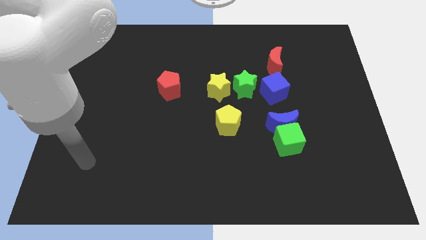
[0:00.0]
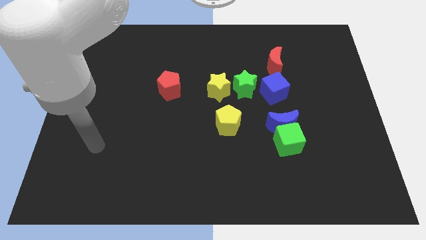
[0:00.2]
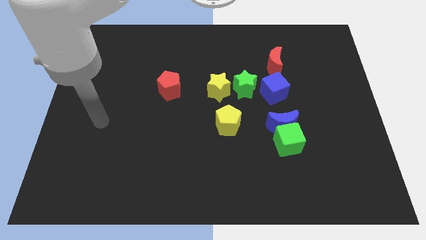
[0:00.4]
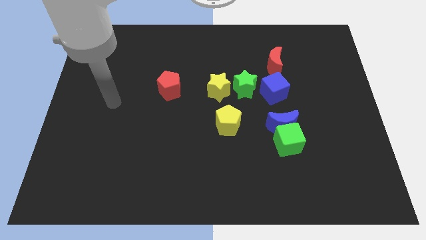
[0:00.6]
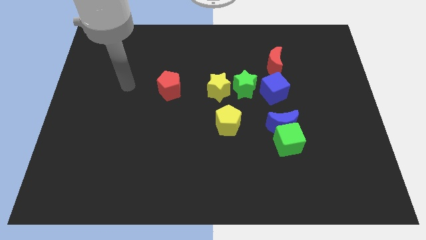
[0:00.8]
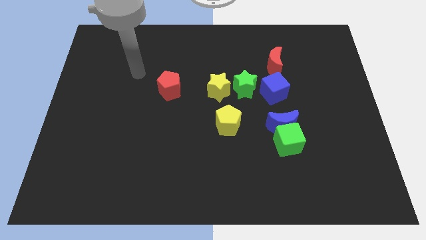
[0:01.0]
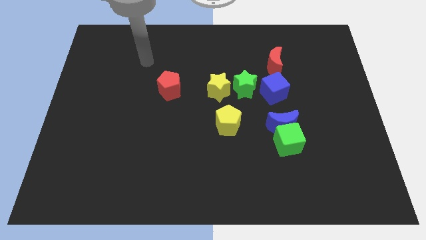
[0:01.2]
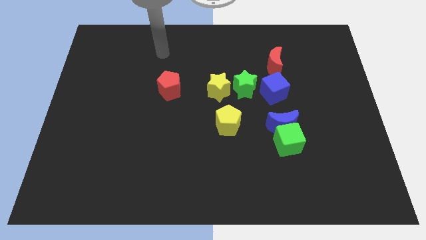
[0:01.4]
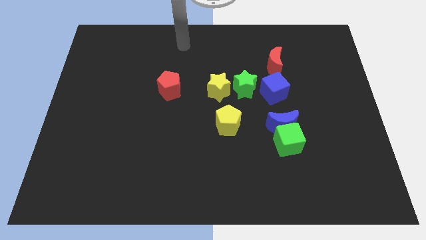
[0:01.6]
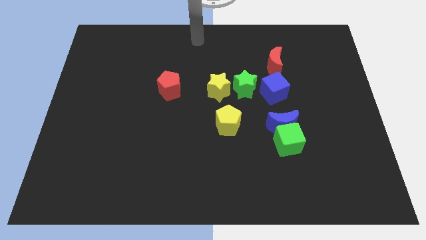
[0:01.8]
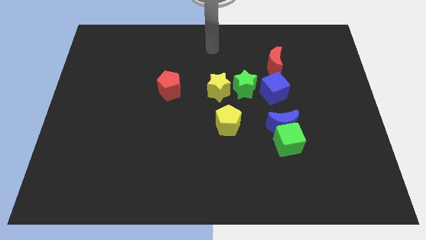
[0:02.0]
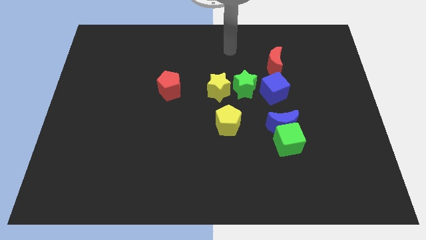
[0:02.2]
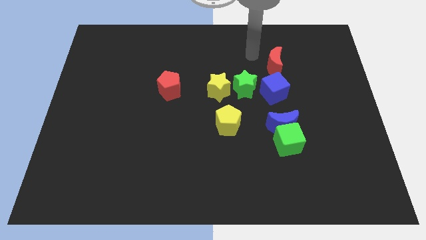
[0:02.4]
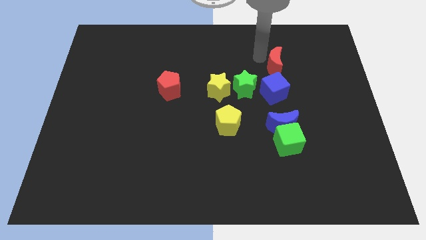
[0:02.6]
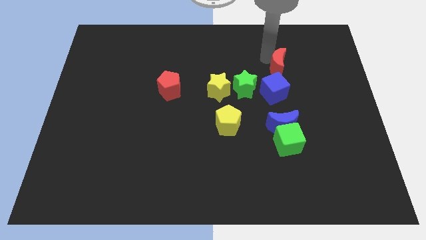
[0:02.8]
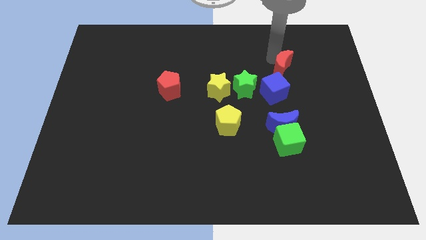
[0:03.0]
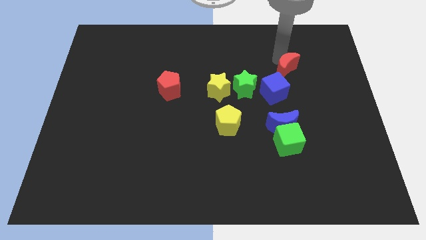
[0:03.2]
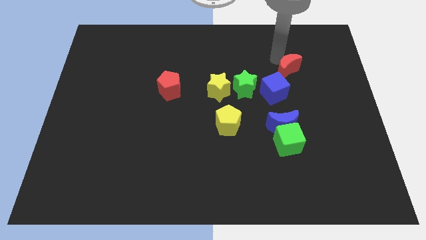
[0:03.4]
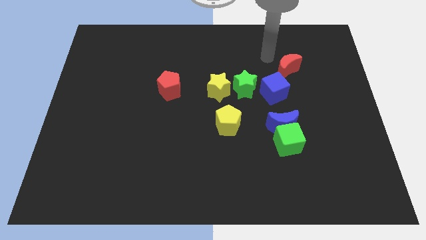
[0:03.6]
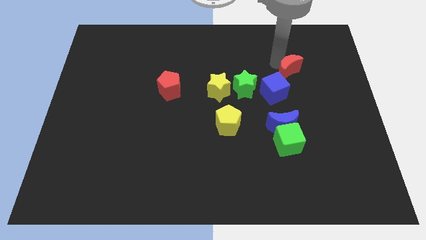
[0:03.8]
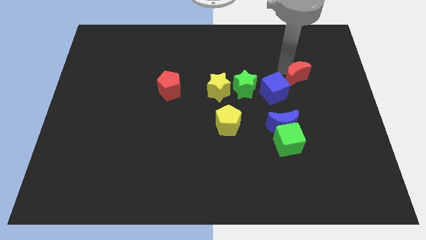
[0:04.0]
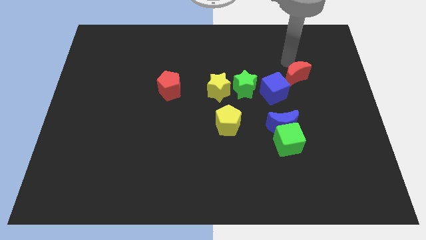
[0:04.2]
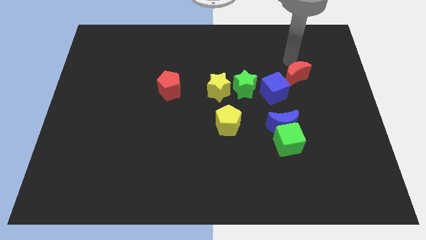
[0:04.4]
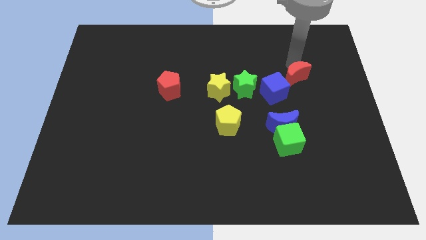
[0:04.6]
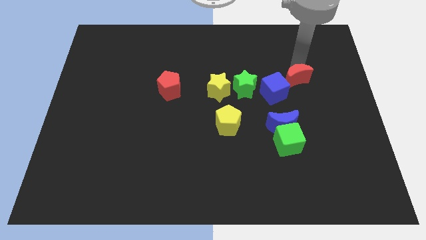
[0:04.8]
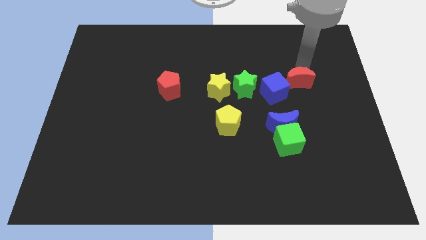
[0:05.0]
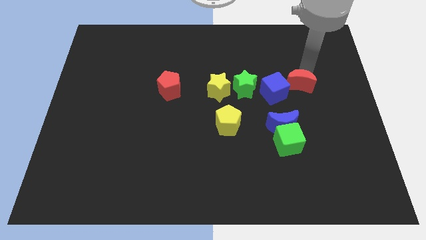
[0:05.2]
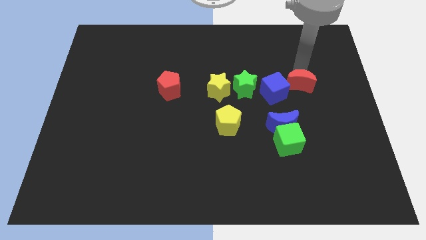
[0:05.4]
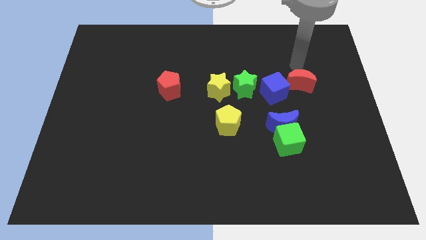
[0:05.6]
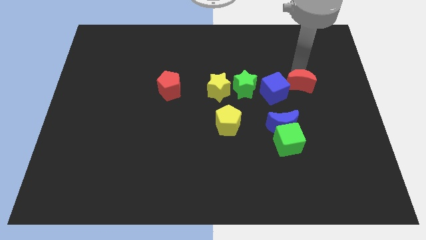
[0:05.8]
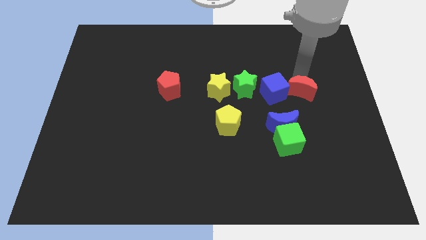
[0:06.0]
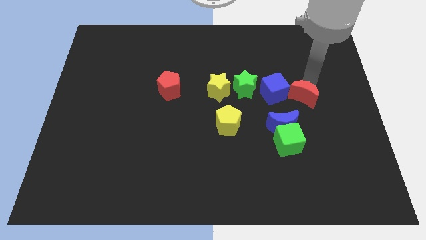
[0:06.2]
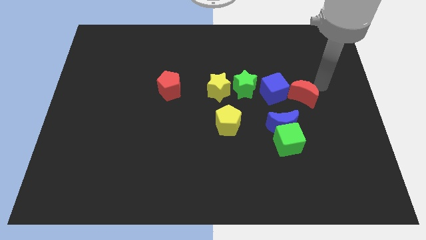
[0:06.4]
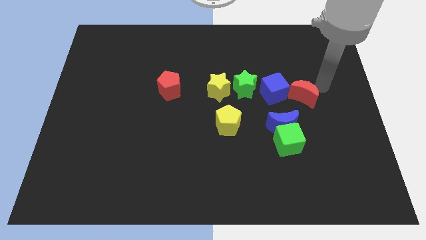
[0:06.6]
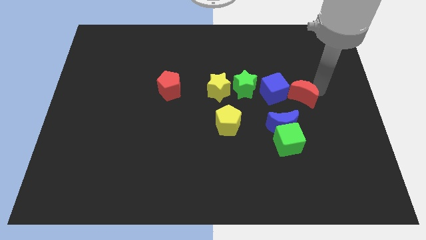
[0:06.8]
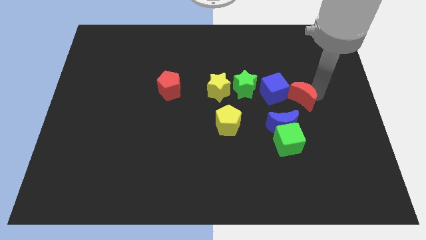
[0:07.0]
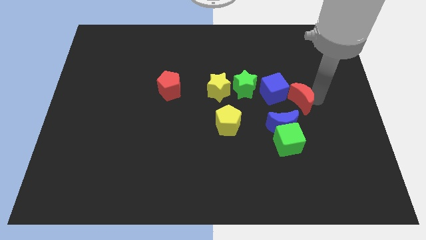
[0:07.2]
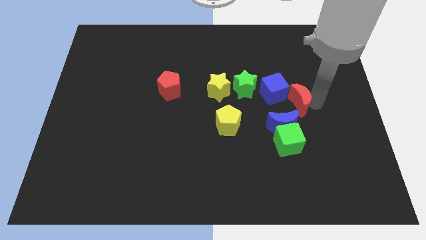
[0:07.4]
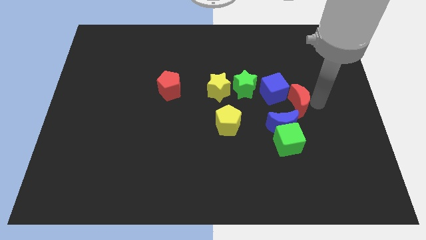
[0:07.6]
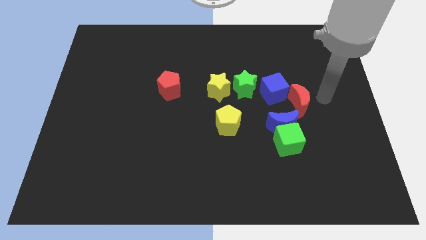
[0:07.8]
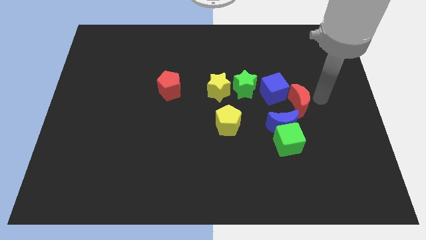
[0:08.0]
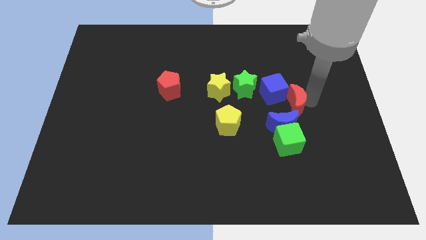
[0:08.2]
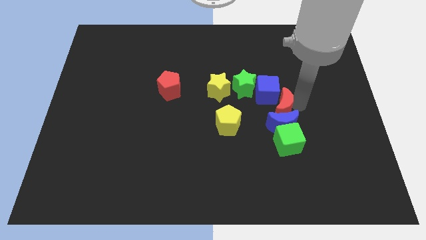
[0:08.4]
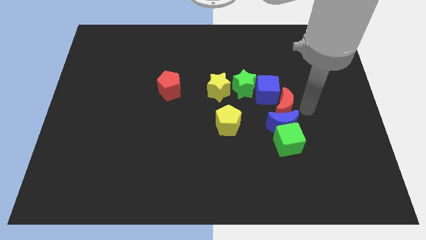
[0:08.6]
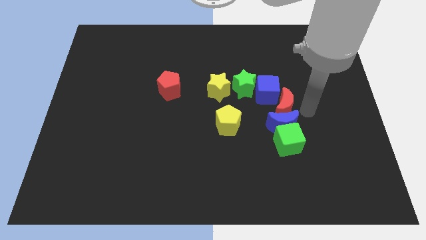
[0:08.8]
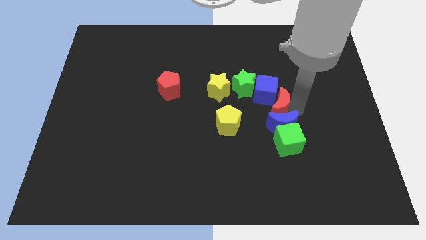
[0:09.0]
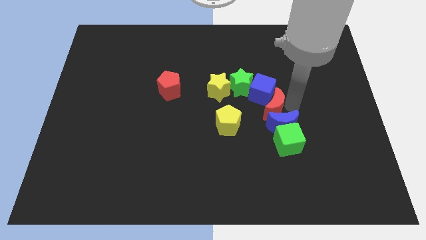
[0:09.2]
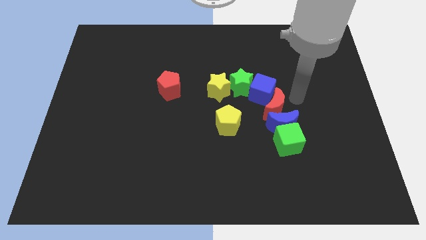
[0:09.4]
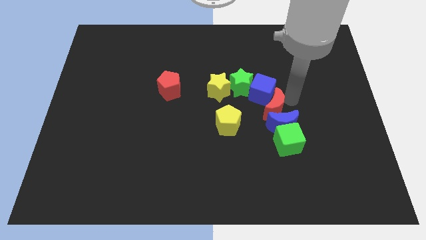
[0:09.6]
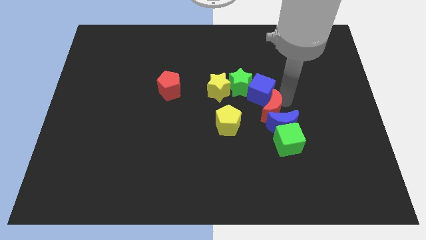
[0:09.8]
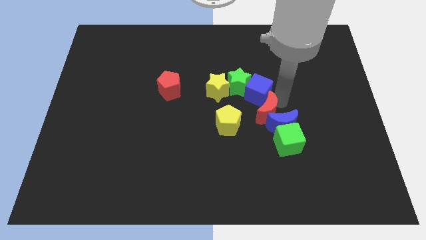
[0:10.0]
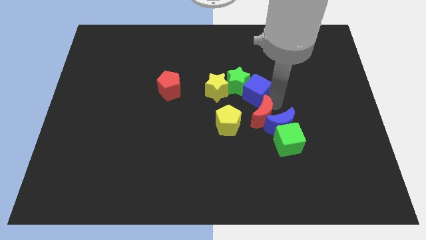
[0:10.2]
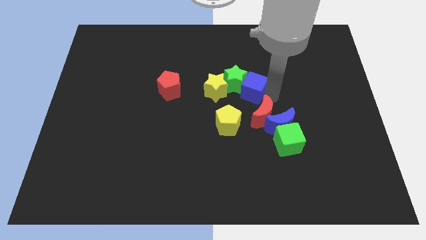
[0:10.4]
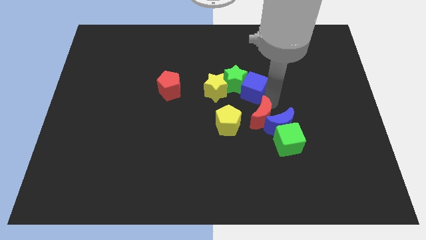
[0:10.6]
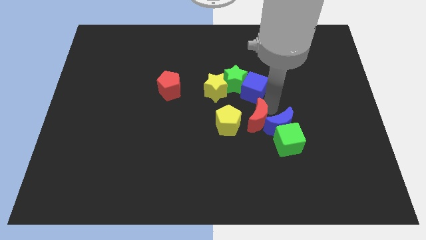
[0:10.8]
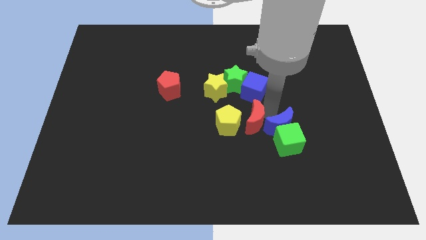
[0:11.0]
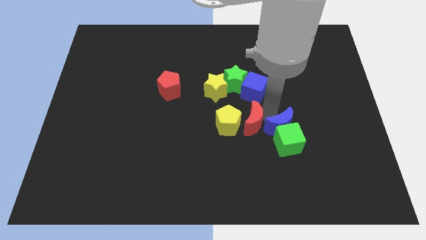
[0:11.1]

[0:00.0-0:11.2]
push the red moon diagonally down and to the right of the yellow pentagon

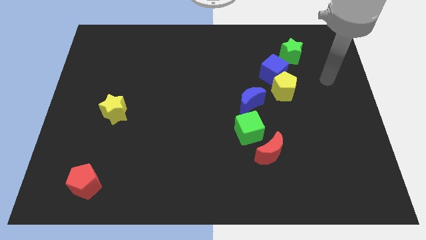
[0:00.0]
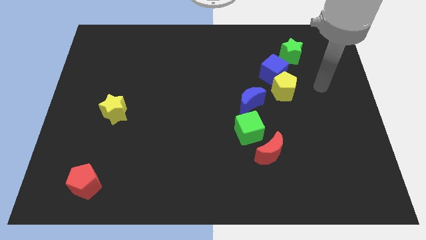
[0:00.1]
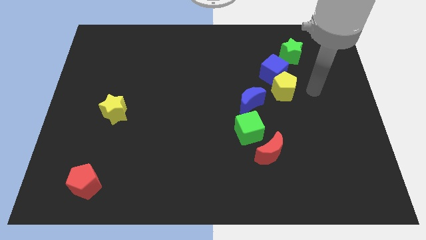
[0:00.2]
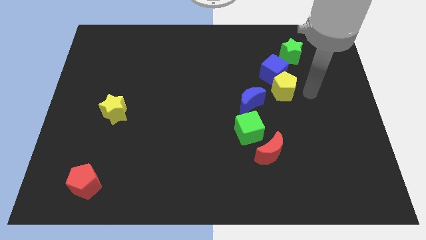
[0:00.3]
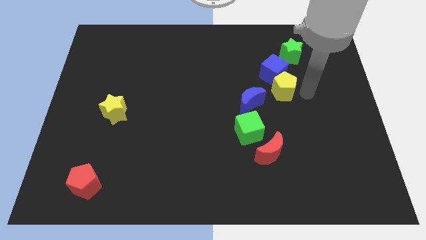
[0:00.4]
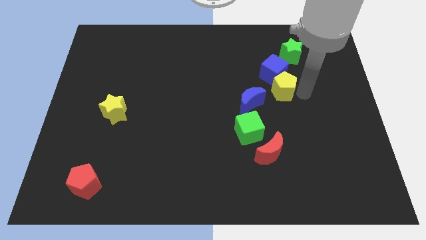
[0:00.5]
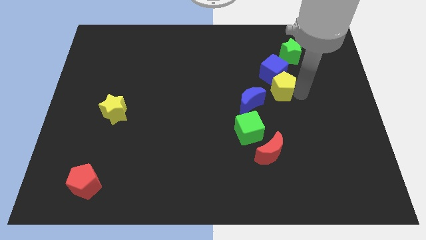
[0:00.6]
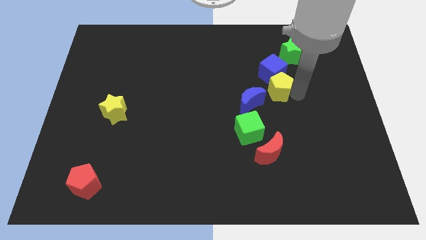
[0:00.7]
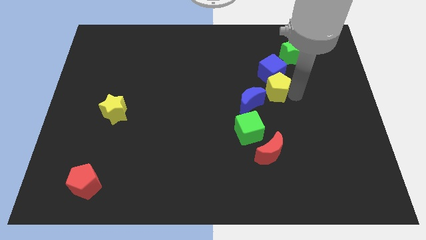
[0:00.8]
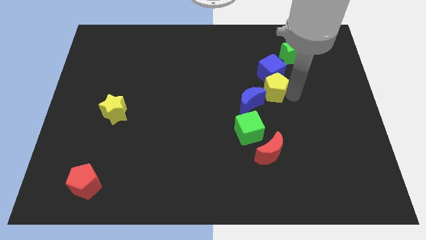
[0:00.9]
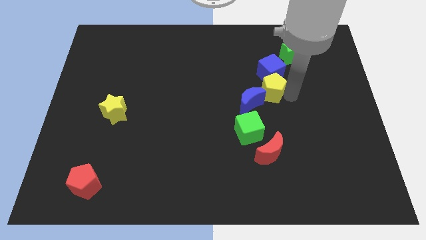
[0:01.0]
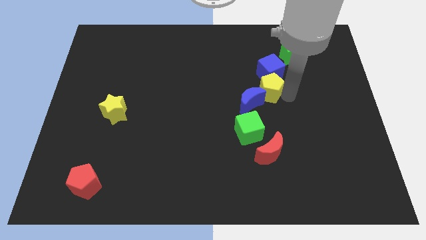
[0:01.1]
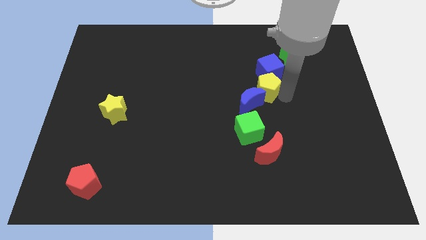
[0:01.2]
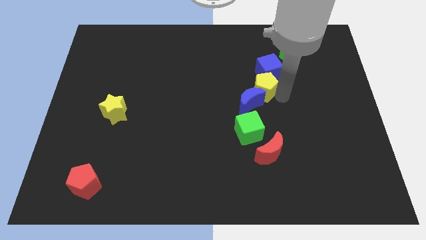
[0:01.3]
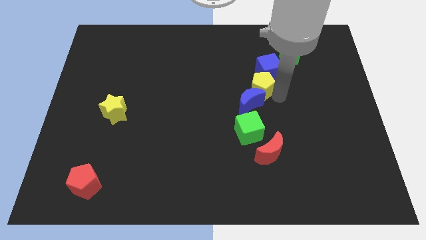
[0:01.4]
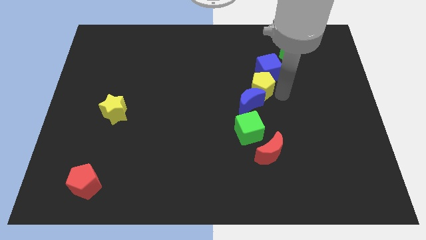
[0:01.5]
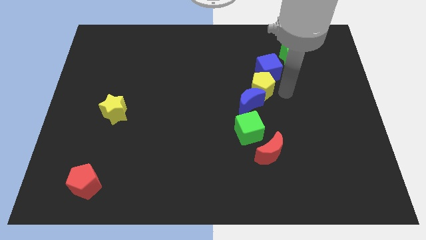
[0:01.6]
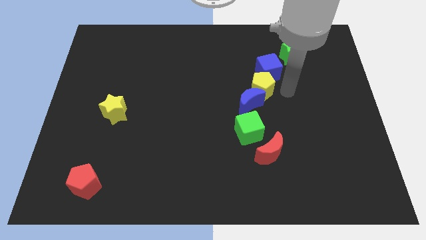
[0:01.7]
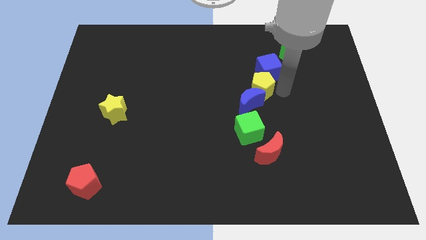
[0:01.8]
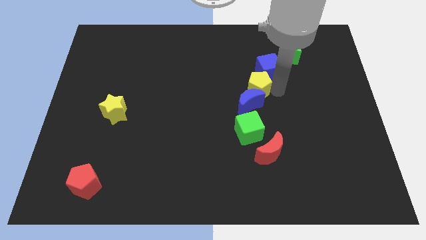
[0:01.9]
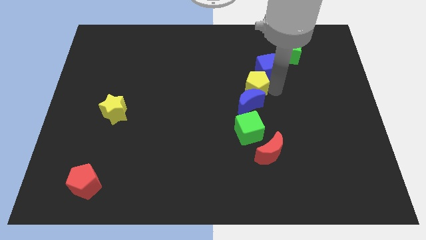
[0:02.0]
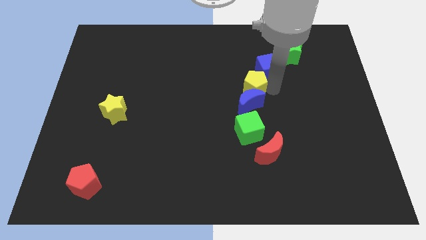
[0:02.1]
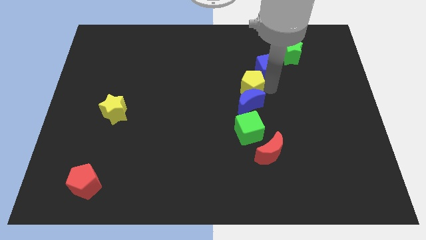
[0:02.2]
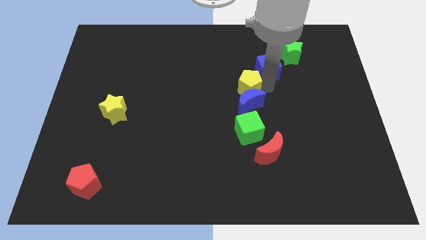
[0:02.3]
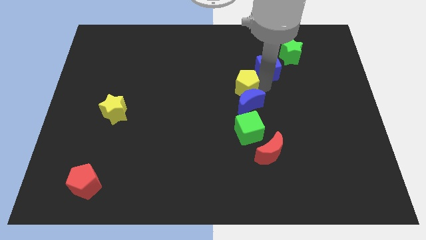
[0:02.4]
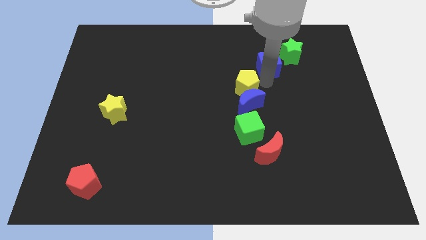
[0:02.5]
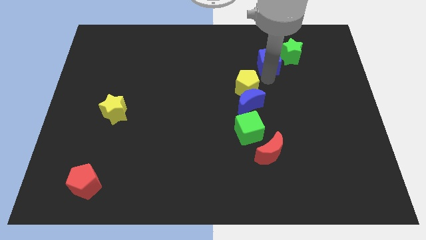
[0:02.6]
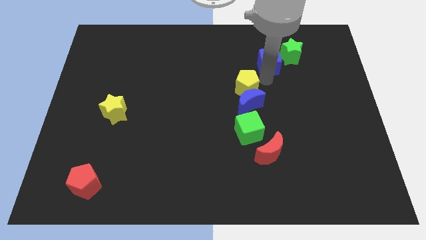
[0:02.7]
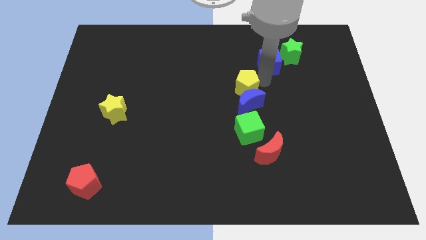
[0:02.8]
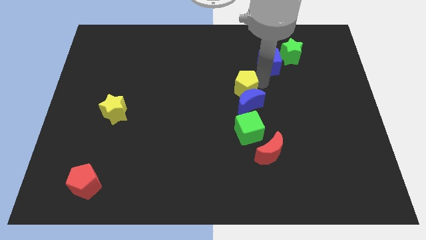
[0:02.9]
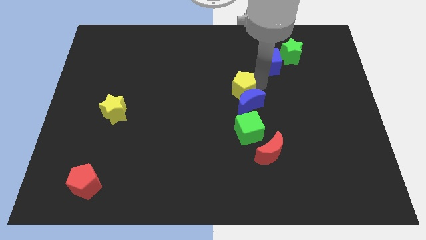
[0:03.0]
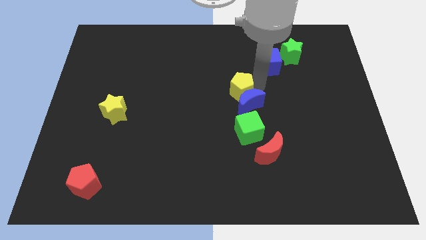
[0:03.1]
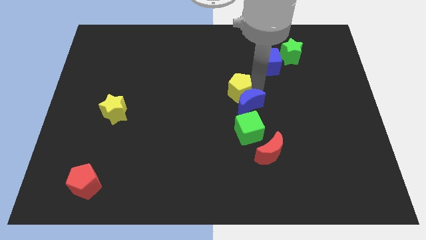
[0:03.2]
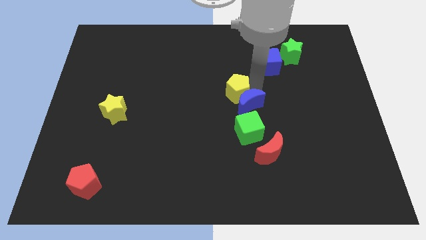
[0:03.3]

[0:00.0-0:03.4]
slide the yellow pentagon to the left of the blue moon
